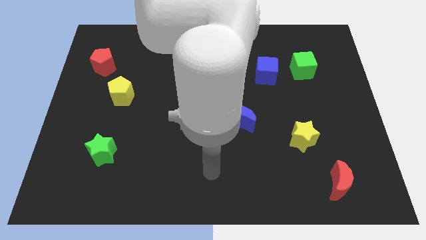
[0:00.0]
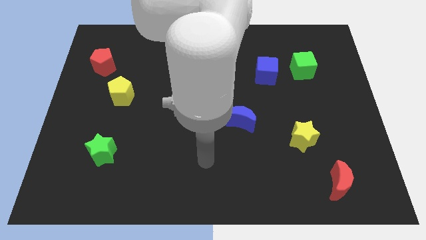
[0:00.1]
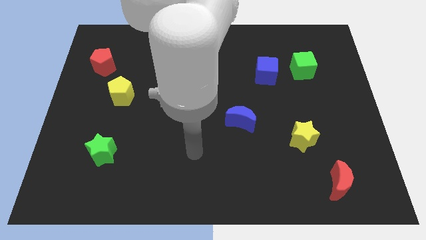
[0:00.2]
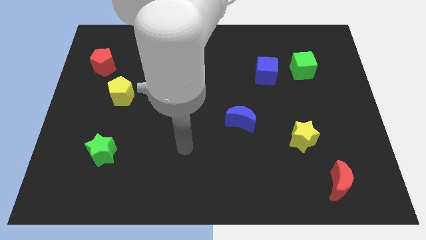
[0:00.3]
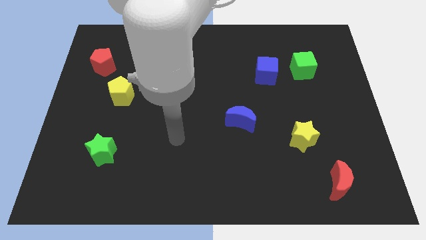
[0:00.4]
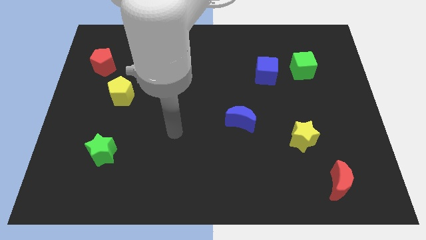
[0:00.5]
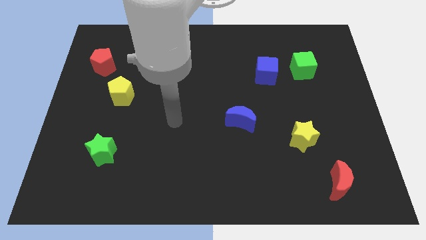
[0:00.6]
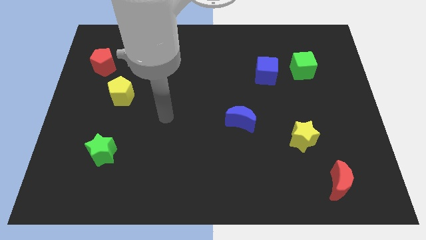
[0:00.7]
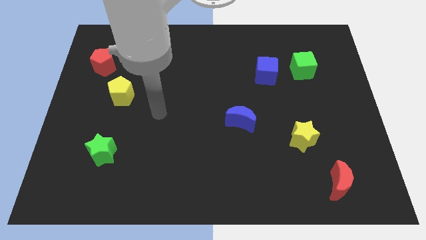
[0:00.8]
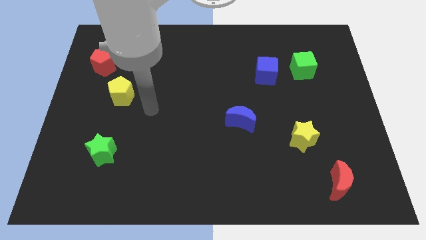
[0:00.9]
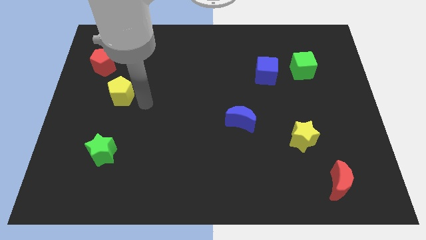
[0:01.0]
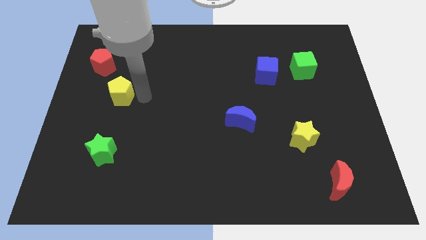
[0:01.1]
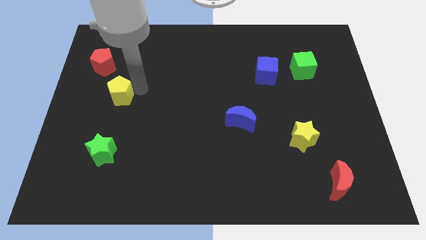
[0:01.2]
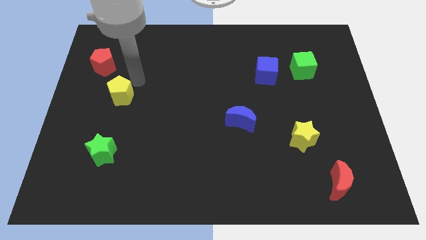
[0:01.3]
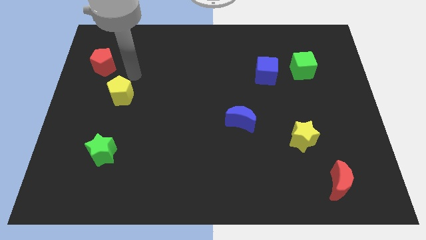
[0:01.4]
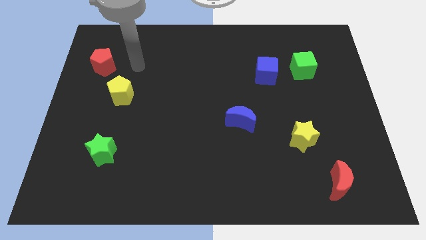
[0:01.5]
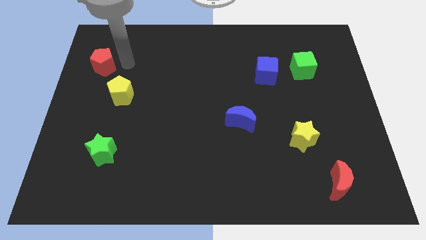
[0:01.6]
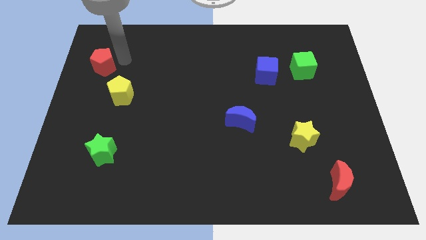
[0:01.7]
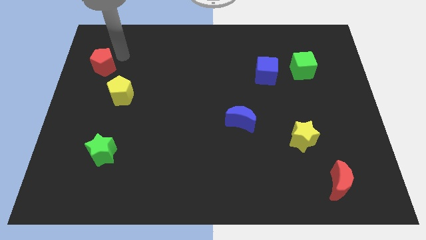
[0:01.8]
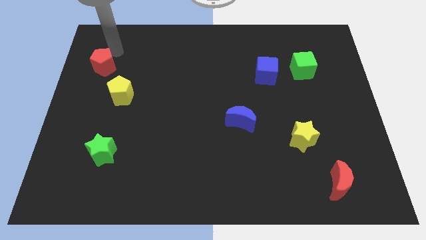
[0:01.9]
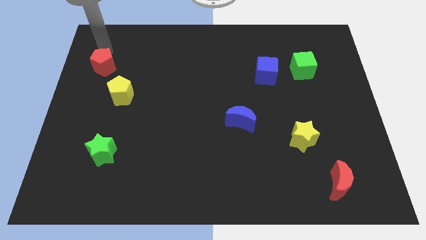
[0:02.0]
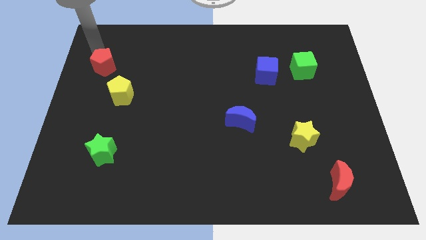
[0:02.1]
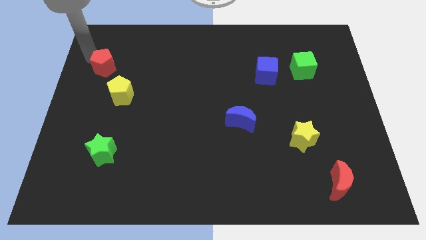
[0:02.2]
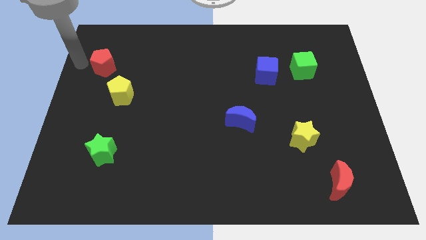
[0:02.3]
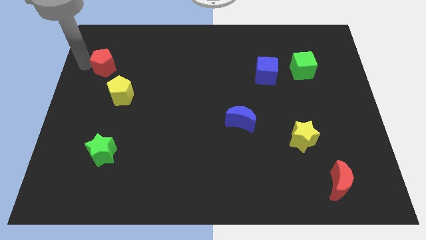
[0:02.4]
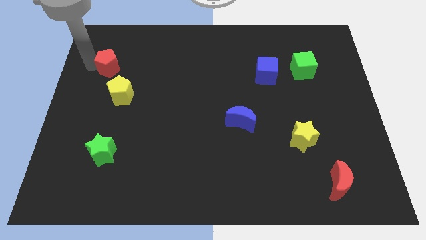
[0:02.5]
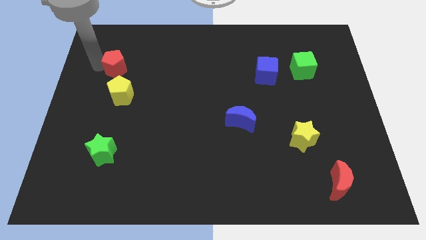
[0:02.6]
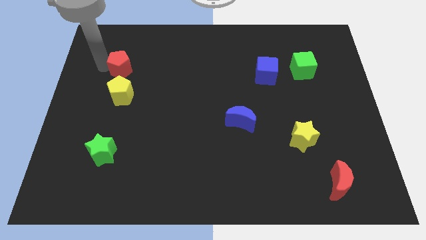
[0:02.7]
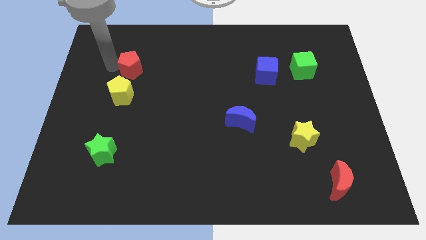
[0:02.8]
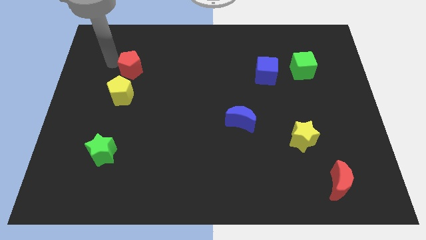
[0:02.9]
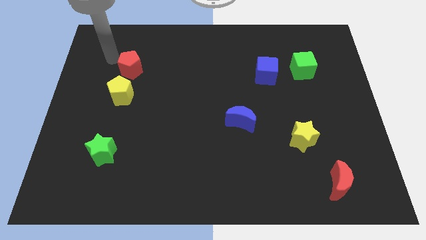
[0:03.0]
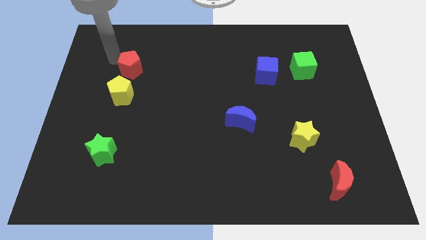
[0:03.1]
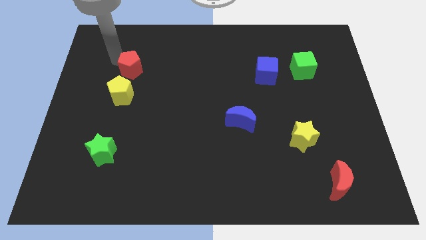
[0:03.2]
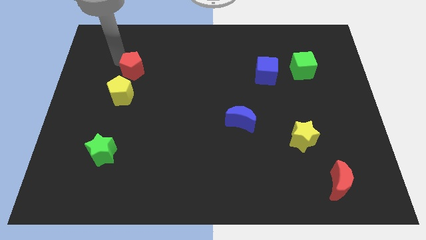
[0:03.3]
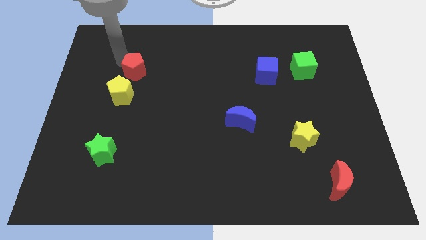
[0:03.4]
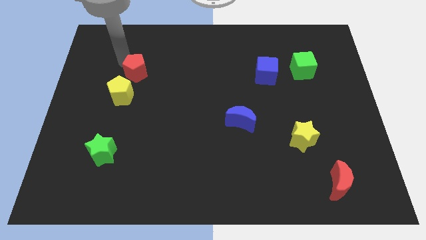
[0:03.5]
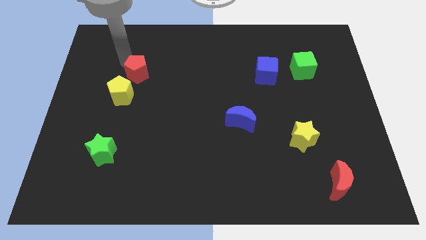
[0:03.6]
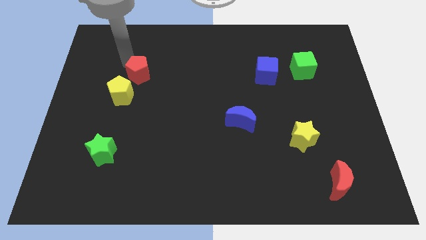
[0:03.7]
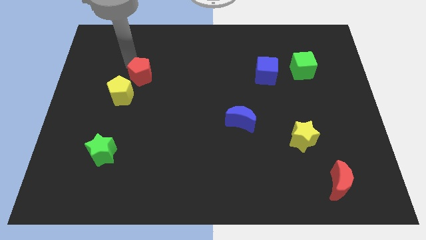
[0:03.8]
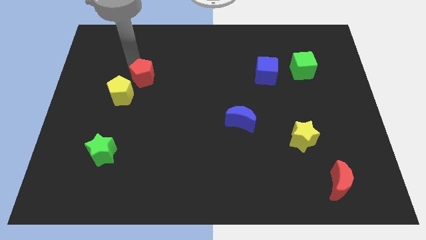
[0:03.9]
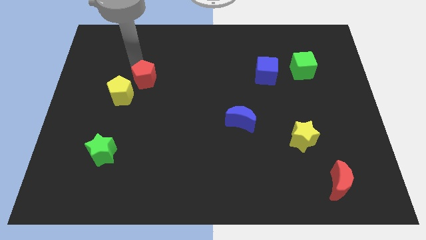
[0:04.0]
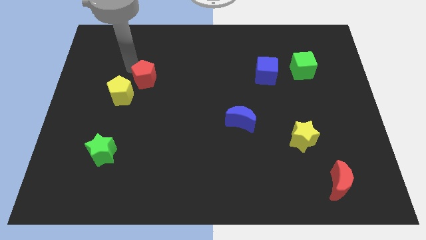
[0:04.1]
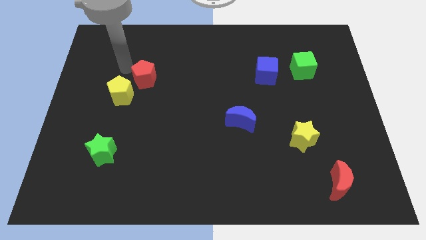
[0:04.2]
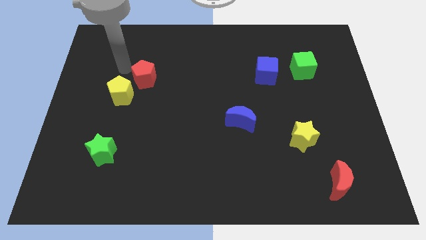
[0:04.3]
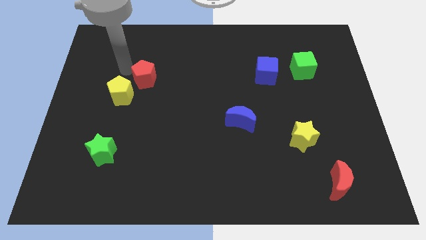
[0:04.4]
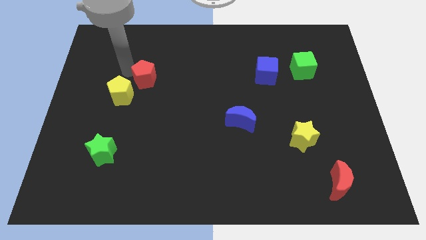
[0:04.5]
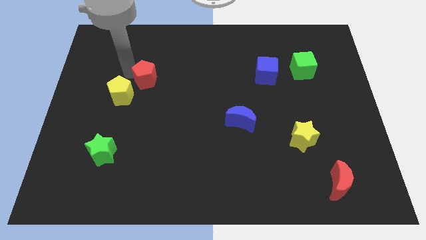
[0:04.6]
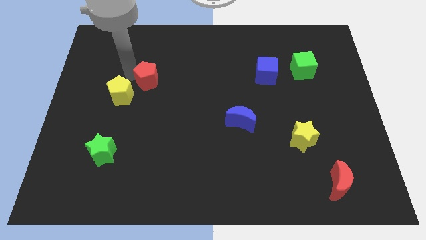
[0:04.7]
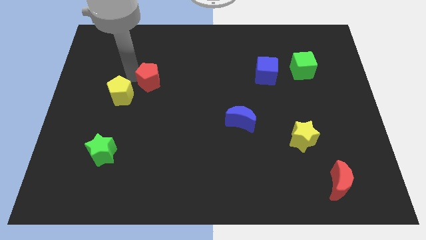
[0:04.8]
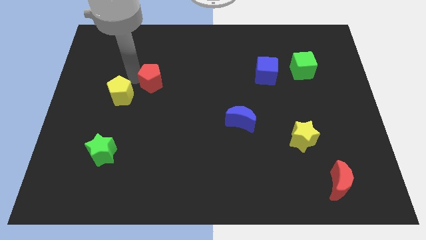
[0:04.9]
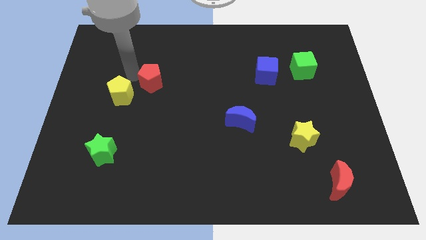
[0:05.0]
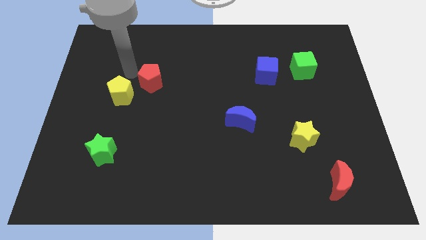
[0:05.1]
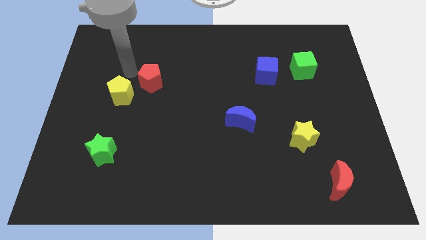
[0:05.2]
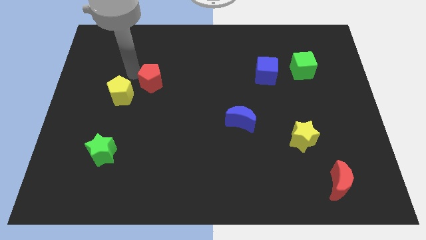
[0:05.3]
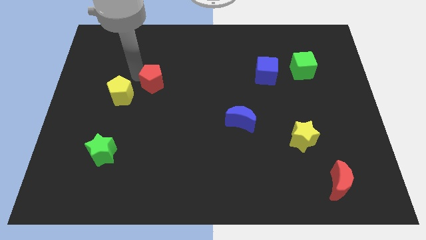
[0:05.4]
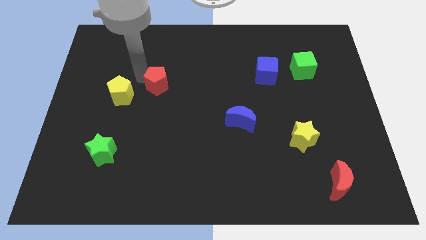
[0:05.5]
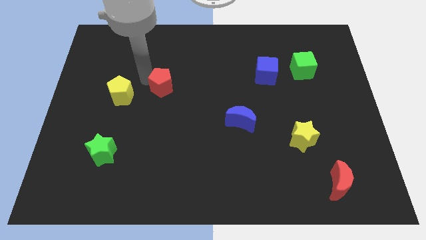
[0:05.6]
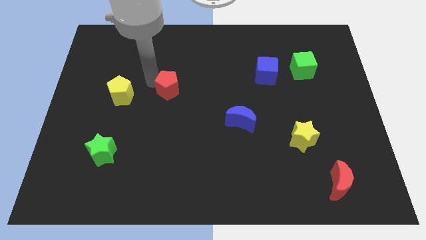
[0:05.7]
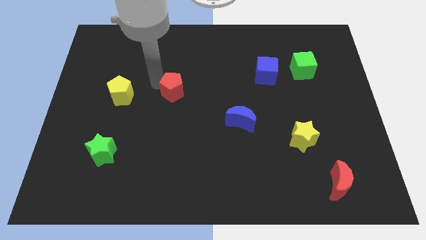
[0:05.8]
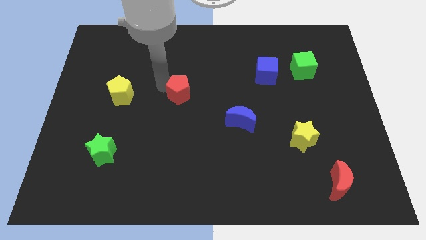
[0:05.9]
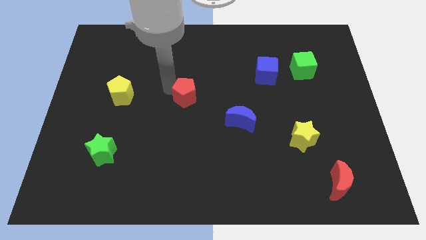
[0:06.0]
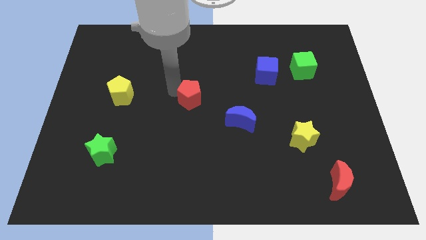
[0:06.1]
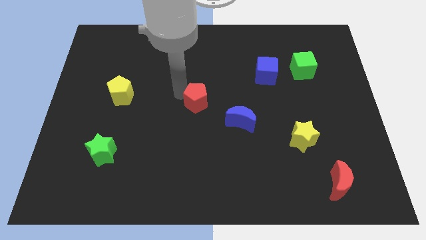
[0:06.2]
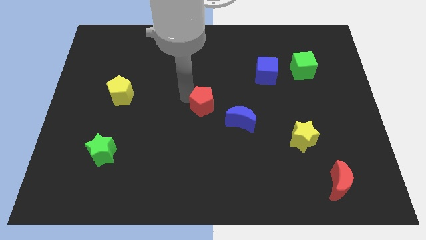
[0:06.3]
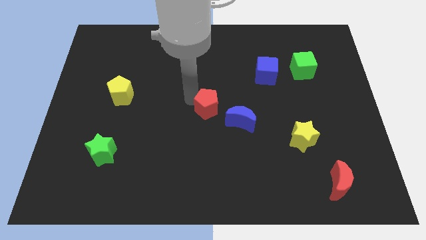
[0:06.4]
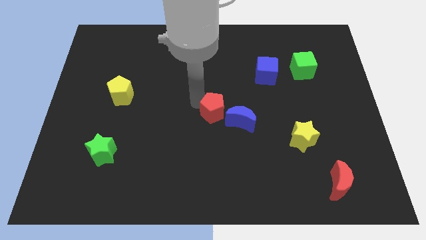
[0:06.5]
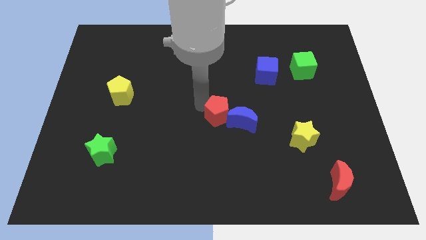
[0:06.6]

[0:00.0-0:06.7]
move the red pentagon towards the blue moon
